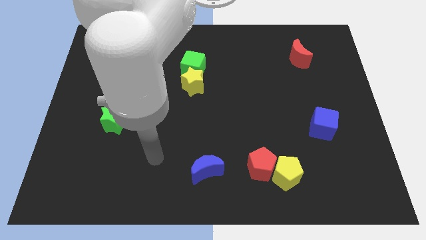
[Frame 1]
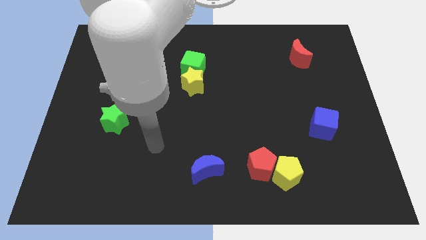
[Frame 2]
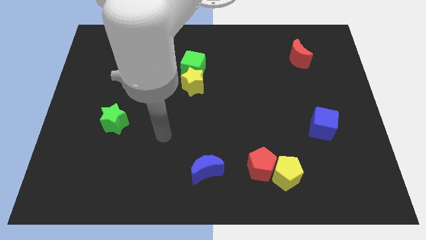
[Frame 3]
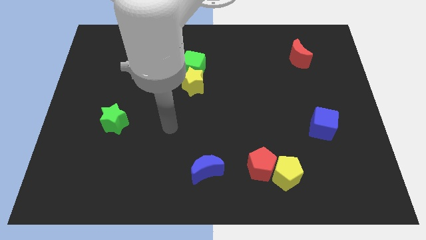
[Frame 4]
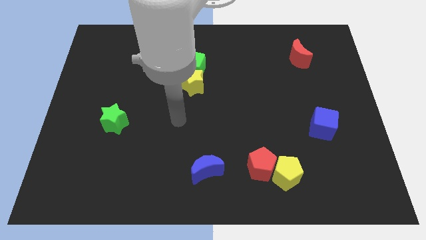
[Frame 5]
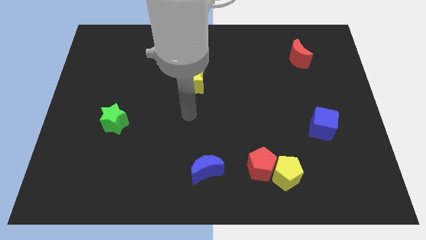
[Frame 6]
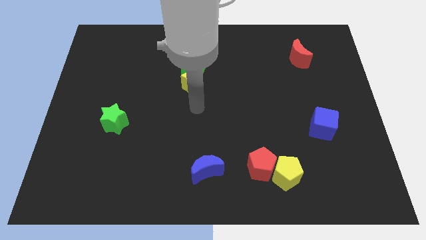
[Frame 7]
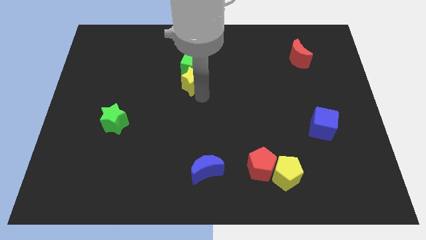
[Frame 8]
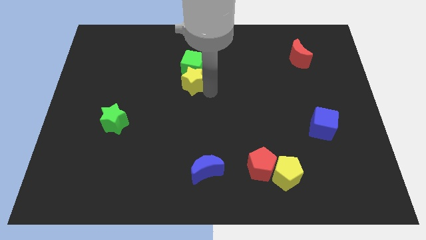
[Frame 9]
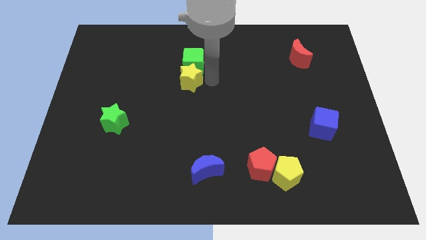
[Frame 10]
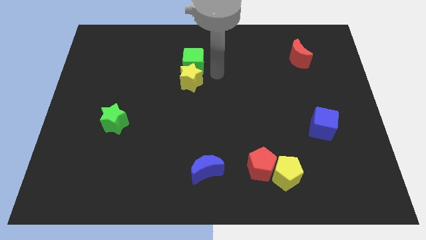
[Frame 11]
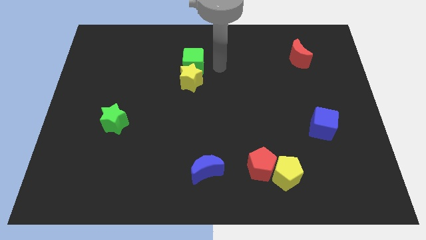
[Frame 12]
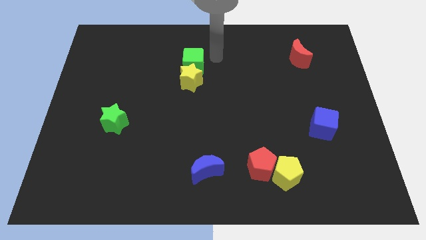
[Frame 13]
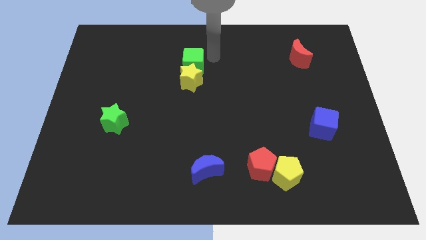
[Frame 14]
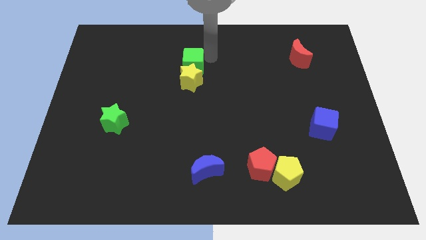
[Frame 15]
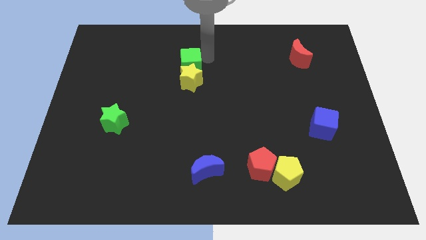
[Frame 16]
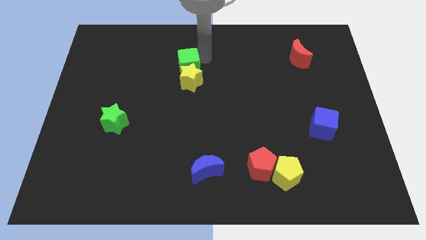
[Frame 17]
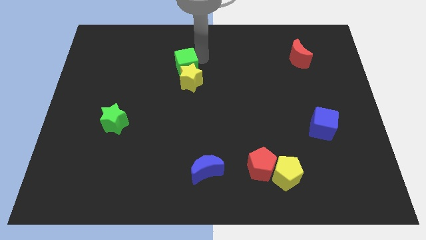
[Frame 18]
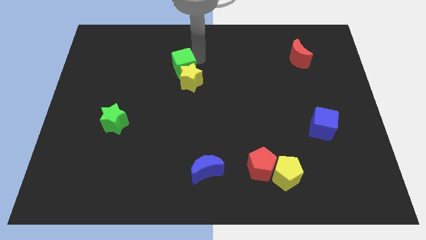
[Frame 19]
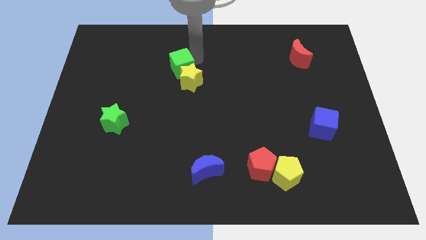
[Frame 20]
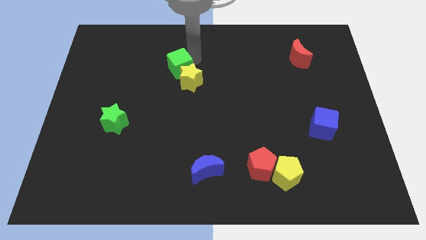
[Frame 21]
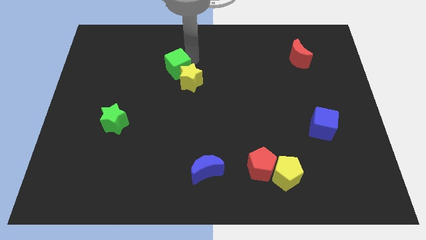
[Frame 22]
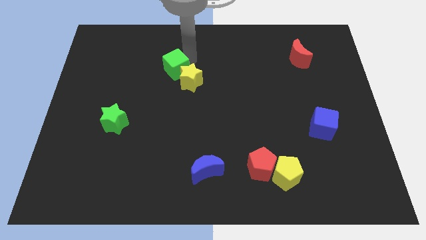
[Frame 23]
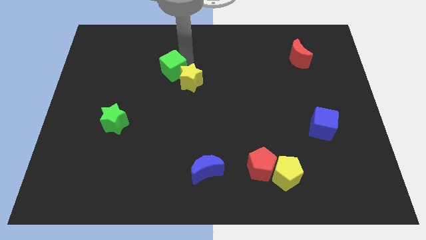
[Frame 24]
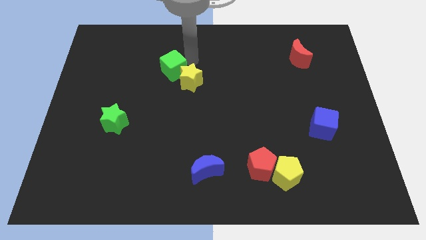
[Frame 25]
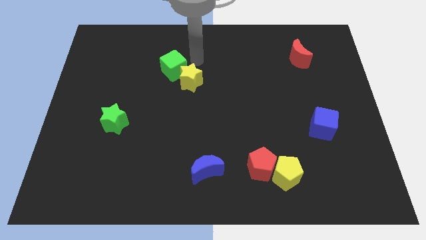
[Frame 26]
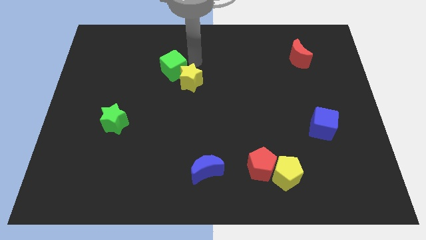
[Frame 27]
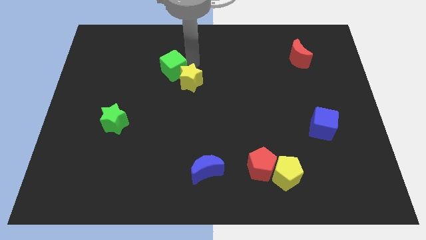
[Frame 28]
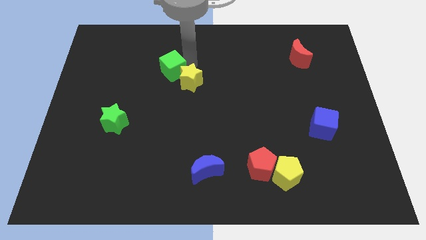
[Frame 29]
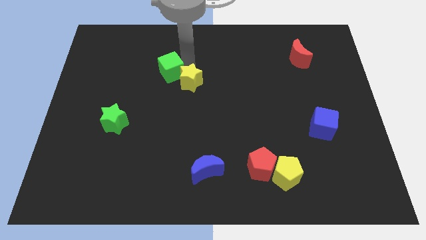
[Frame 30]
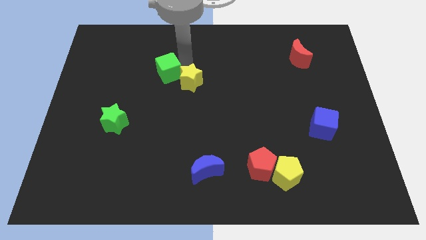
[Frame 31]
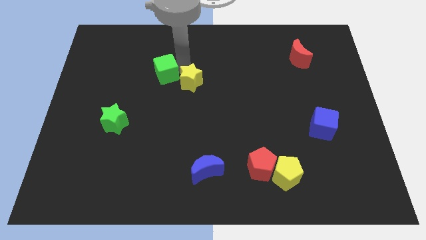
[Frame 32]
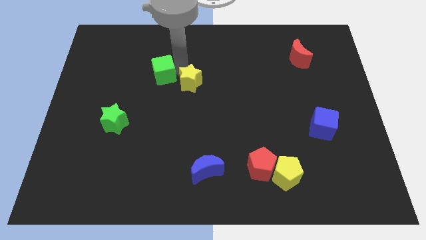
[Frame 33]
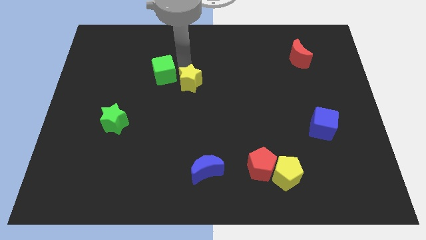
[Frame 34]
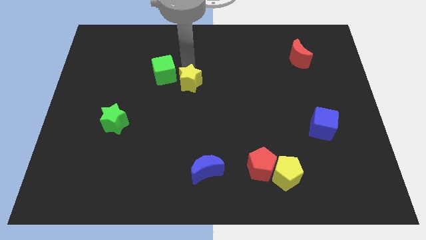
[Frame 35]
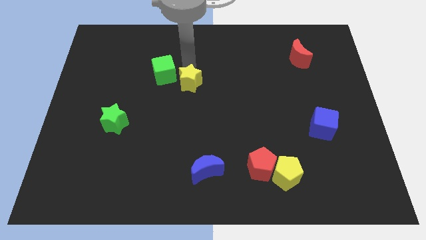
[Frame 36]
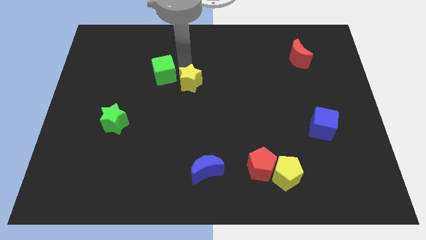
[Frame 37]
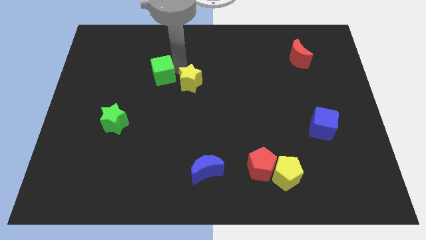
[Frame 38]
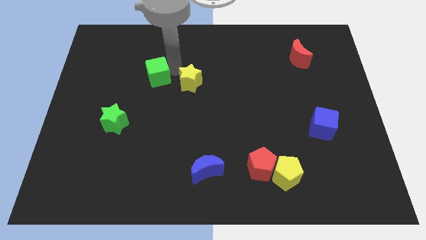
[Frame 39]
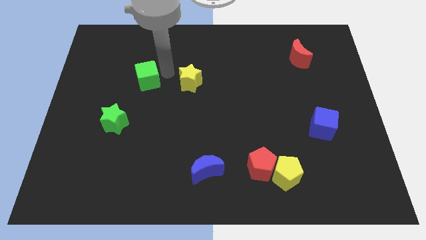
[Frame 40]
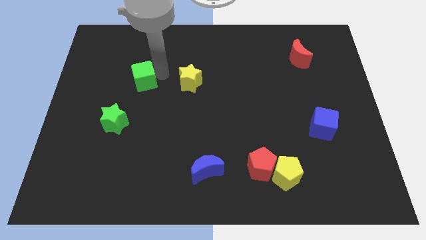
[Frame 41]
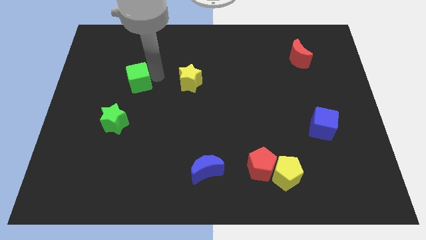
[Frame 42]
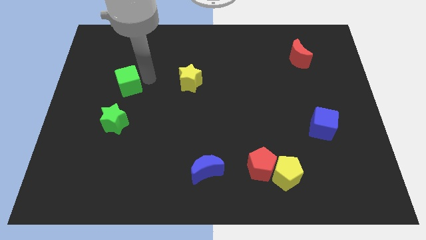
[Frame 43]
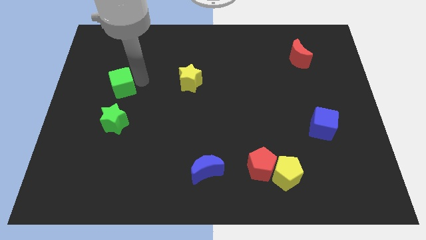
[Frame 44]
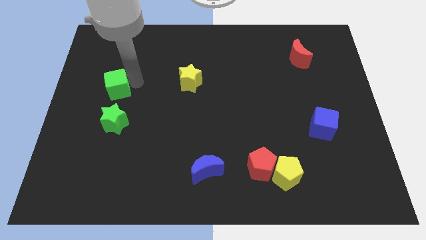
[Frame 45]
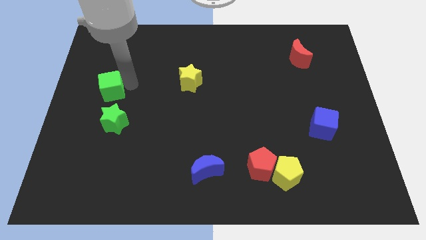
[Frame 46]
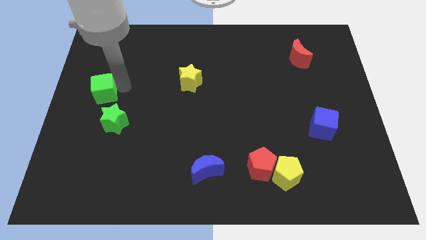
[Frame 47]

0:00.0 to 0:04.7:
push the green cube to the left side

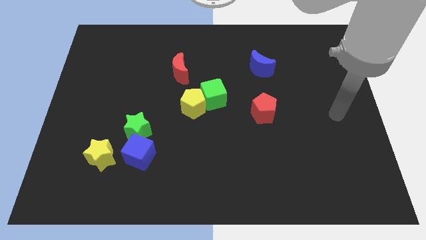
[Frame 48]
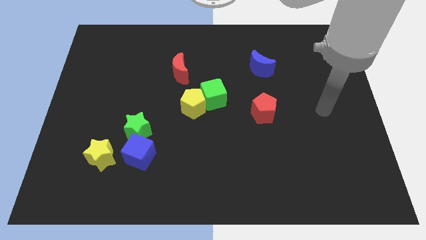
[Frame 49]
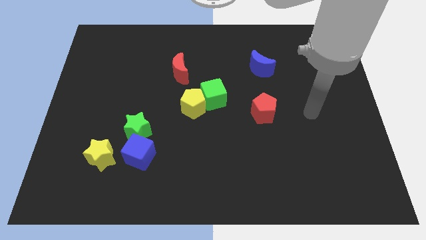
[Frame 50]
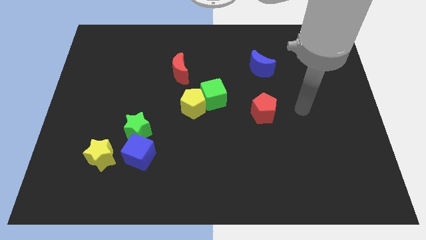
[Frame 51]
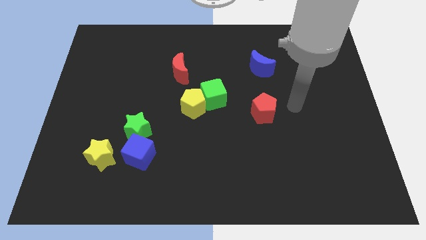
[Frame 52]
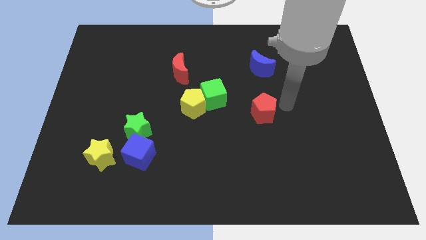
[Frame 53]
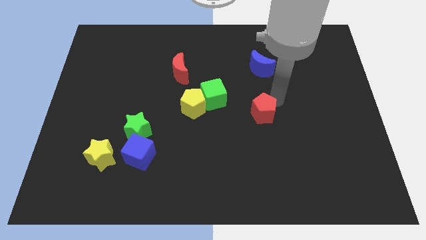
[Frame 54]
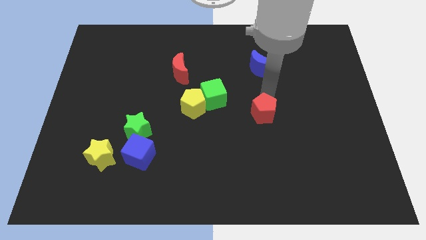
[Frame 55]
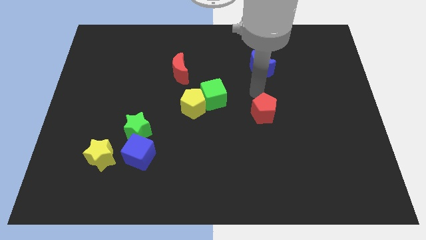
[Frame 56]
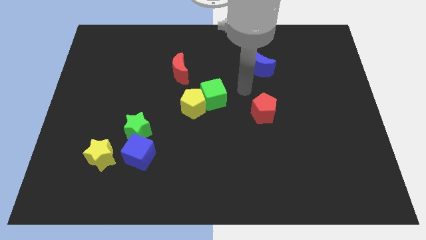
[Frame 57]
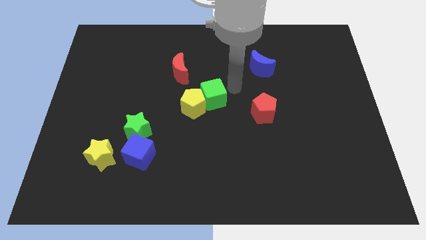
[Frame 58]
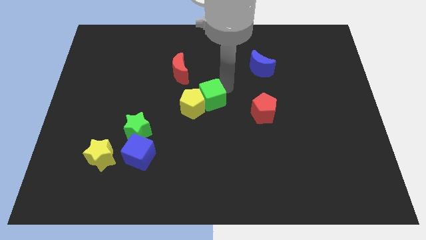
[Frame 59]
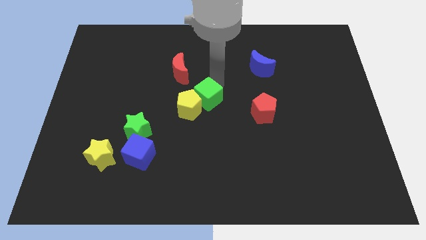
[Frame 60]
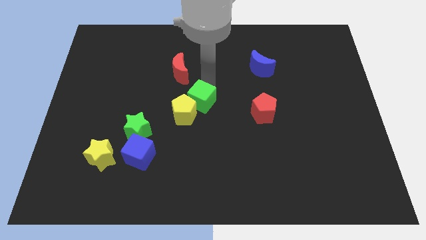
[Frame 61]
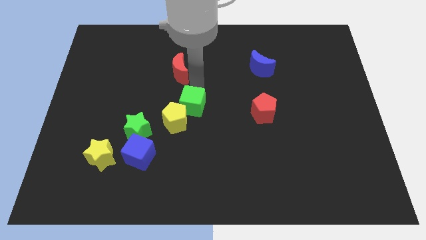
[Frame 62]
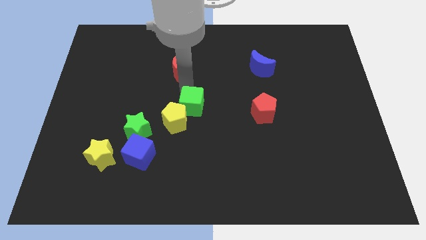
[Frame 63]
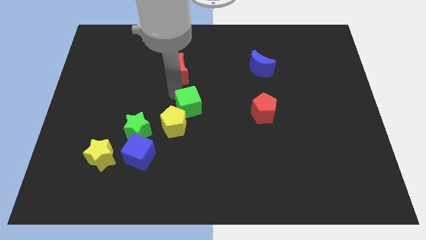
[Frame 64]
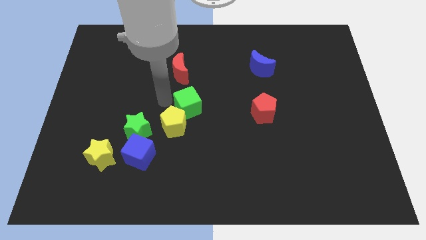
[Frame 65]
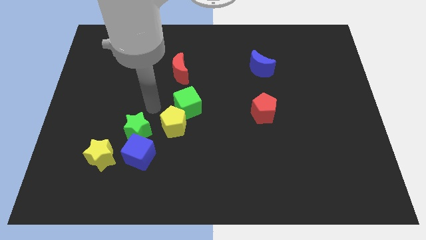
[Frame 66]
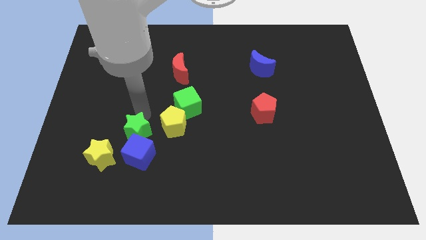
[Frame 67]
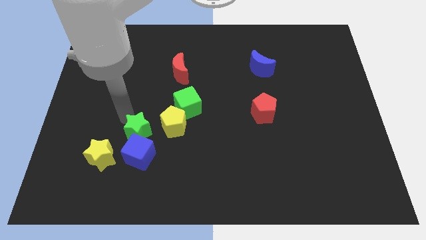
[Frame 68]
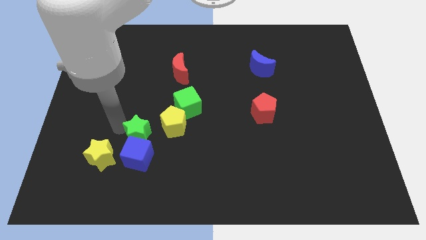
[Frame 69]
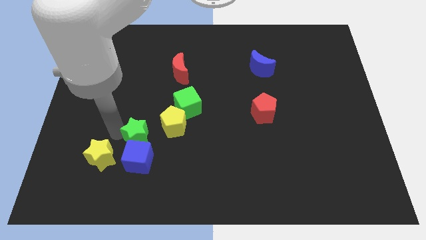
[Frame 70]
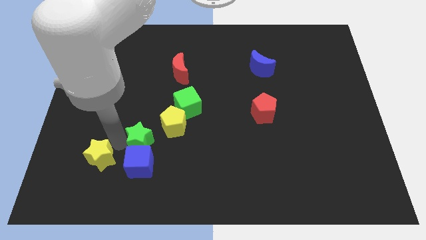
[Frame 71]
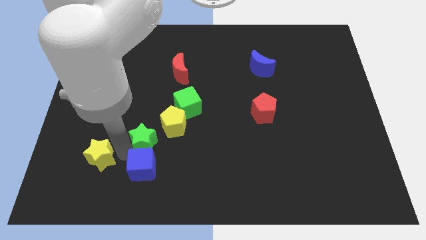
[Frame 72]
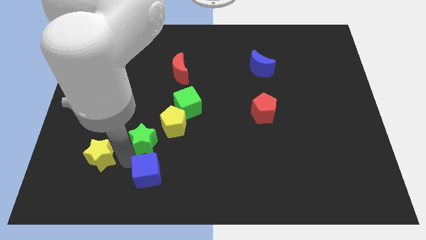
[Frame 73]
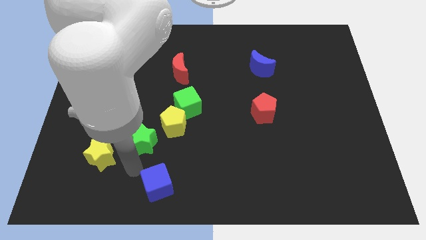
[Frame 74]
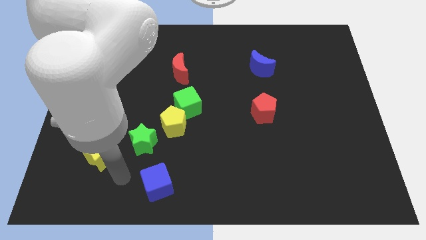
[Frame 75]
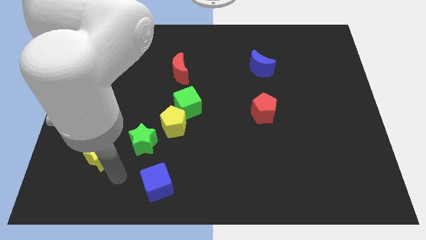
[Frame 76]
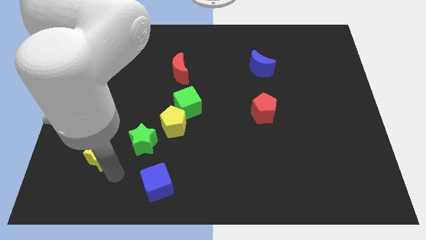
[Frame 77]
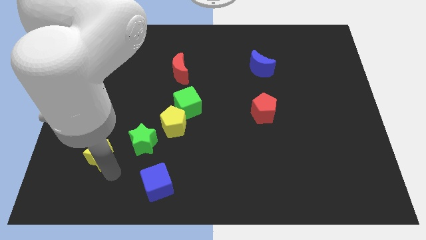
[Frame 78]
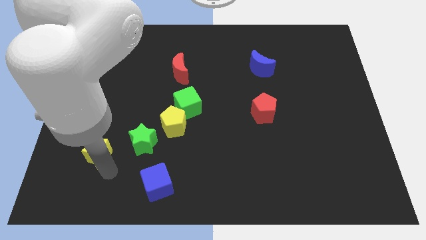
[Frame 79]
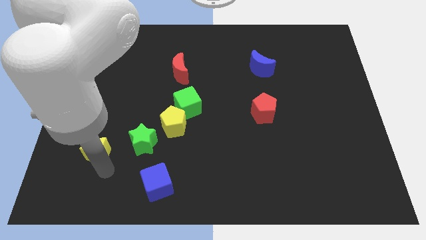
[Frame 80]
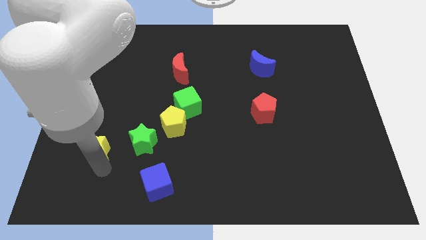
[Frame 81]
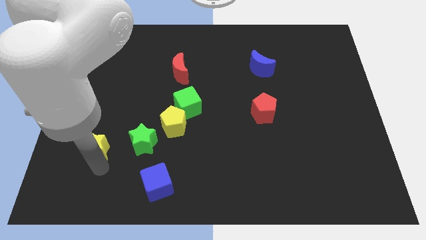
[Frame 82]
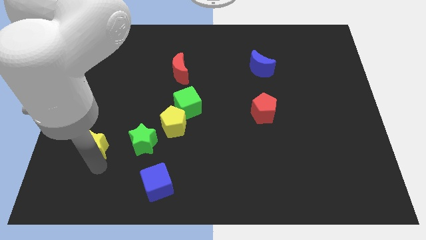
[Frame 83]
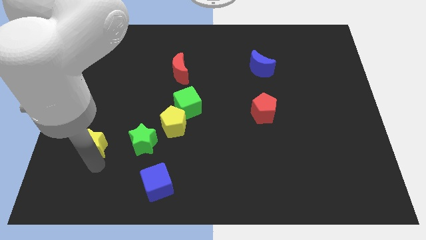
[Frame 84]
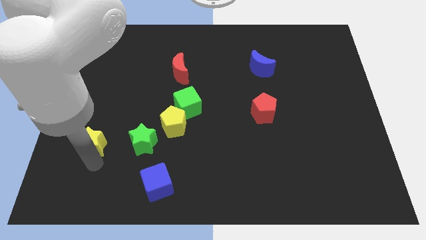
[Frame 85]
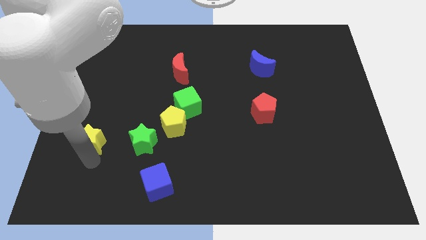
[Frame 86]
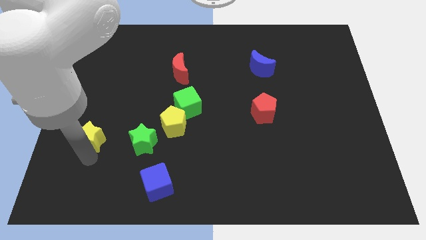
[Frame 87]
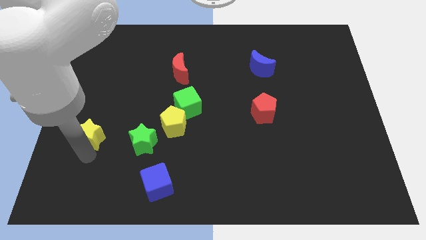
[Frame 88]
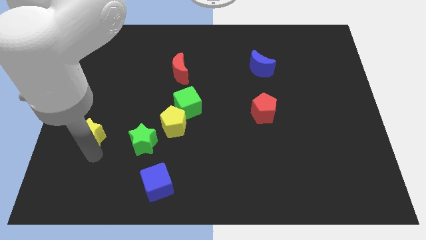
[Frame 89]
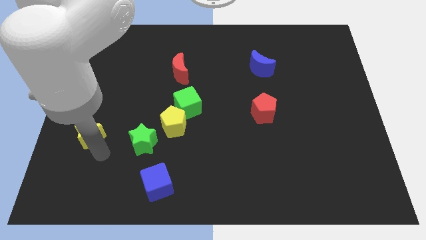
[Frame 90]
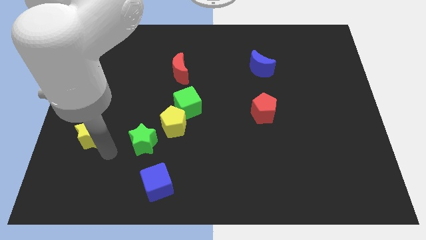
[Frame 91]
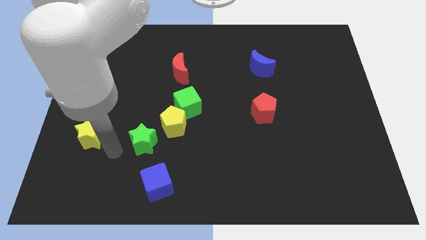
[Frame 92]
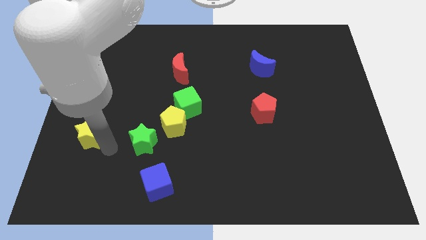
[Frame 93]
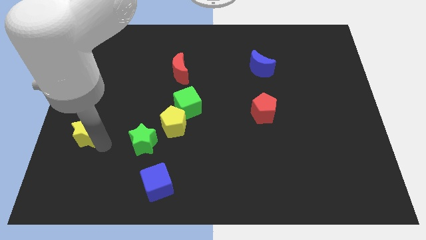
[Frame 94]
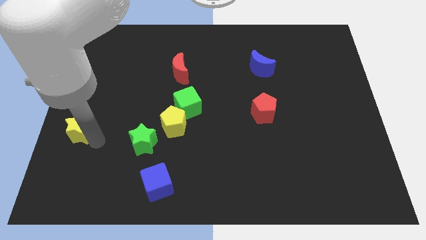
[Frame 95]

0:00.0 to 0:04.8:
put the yellow star to the left side of the board
